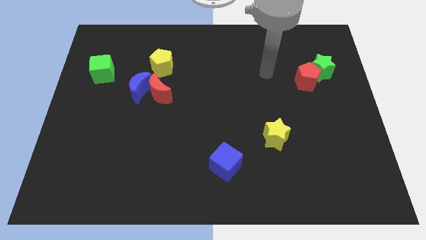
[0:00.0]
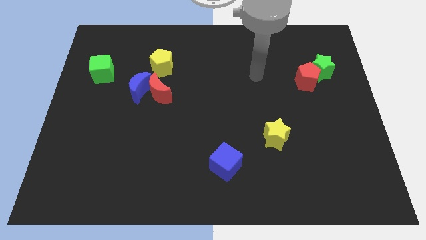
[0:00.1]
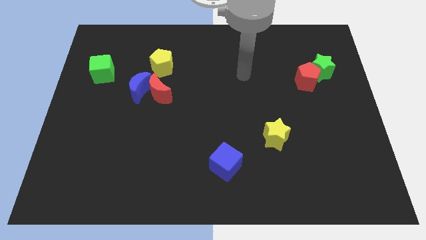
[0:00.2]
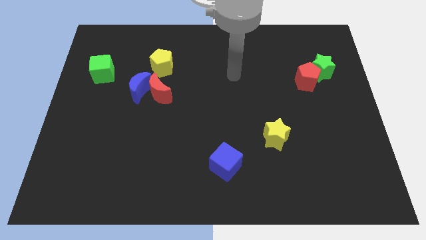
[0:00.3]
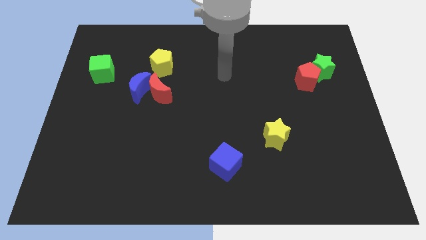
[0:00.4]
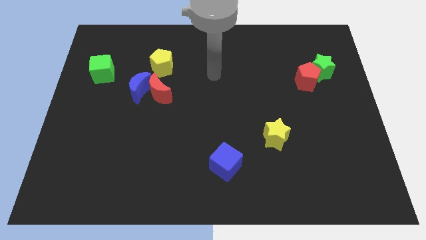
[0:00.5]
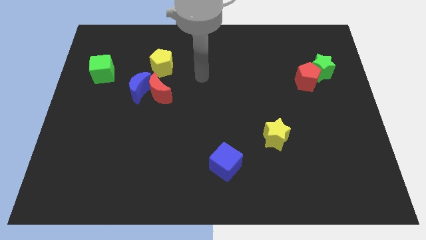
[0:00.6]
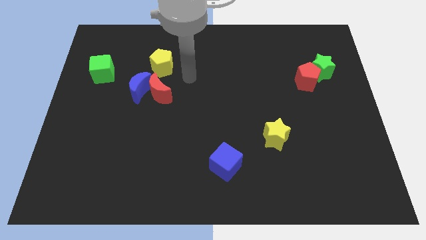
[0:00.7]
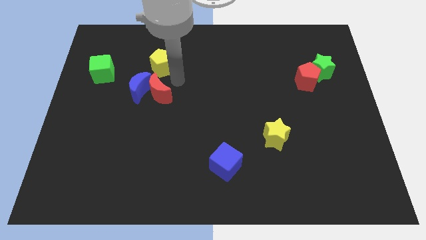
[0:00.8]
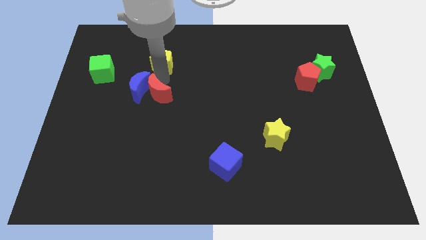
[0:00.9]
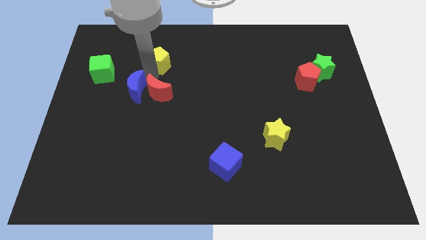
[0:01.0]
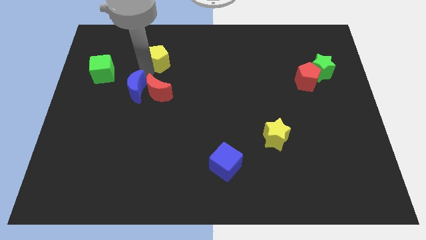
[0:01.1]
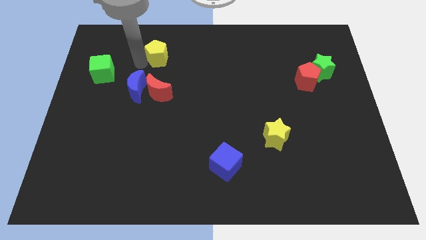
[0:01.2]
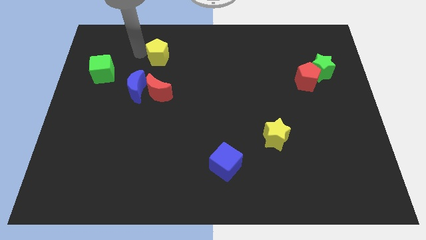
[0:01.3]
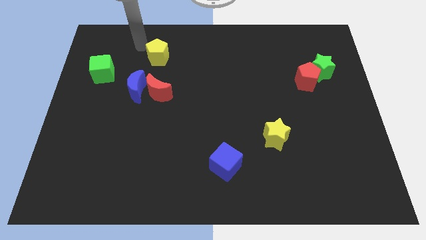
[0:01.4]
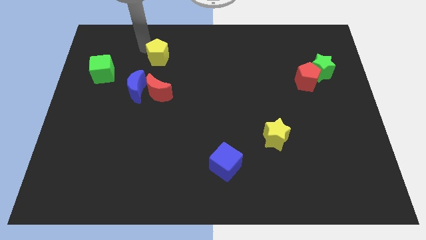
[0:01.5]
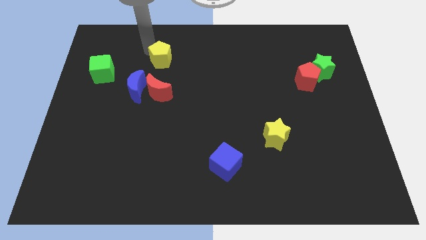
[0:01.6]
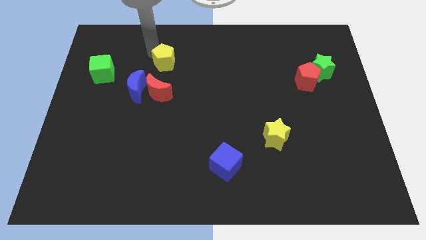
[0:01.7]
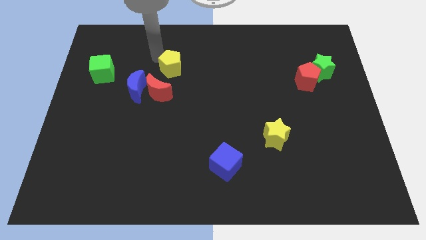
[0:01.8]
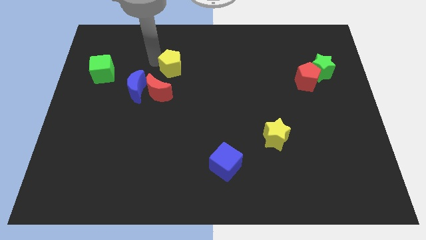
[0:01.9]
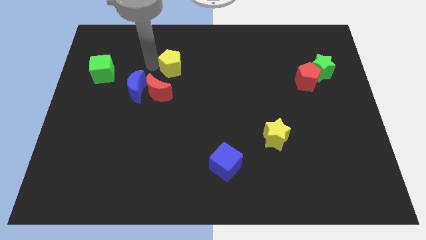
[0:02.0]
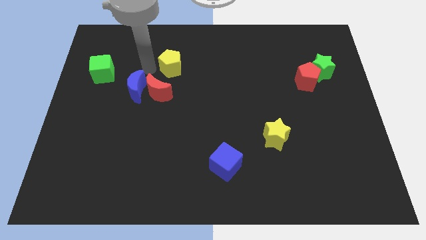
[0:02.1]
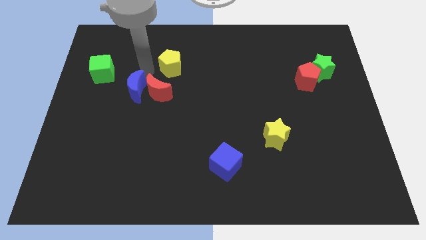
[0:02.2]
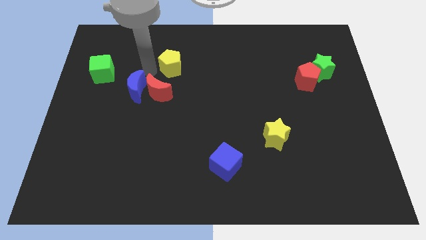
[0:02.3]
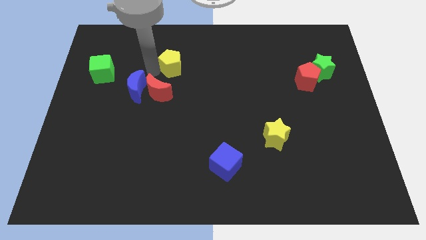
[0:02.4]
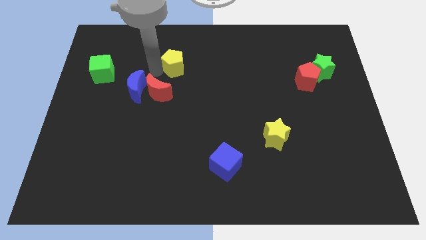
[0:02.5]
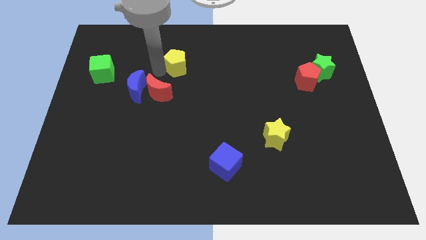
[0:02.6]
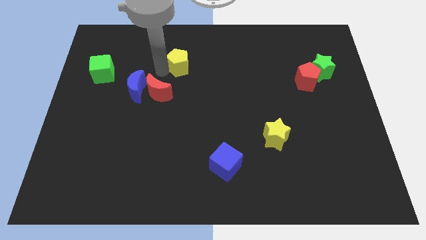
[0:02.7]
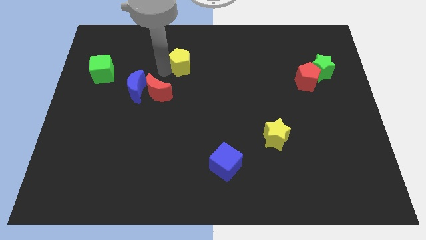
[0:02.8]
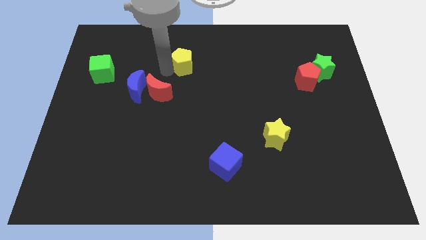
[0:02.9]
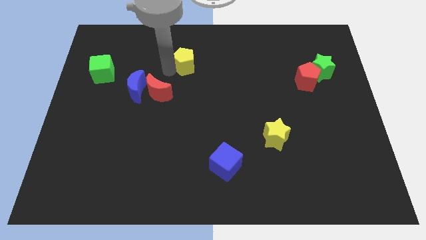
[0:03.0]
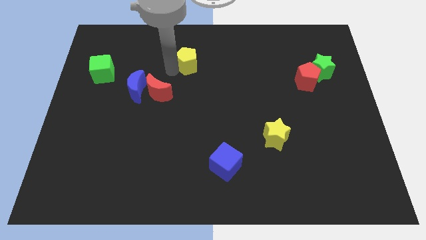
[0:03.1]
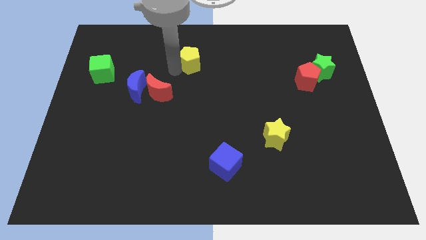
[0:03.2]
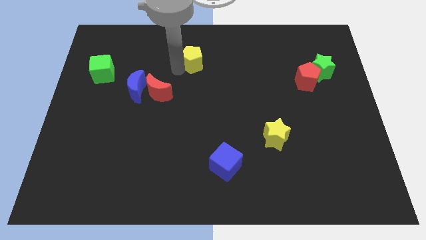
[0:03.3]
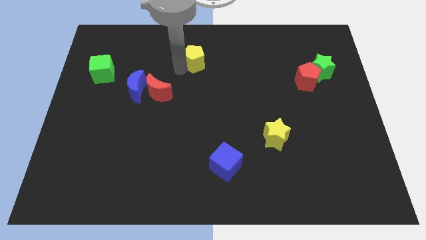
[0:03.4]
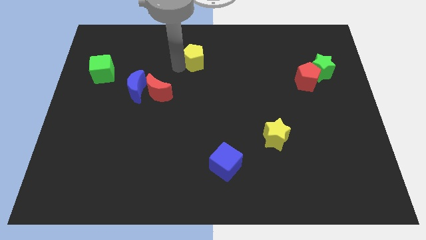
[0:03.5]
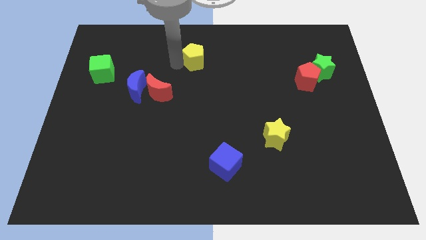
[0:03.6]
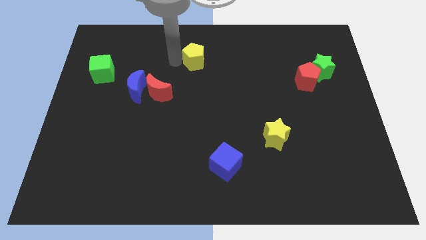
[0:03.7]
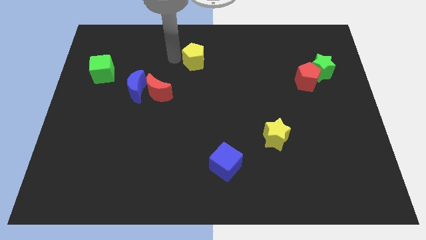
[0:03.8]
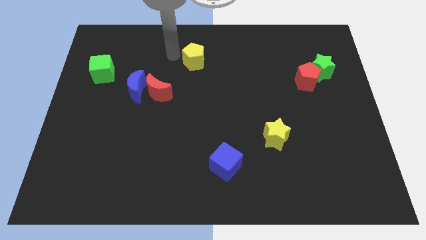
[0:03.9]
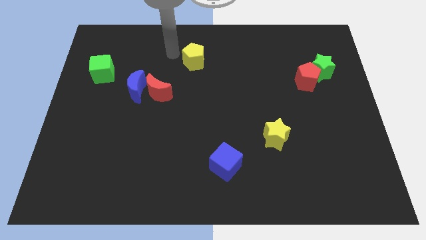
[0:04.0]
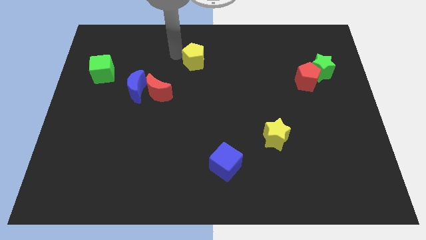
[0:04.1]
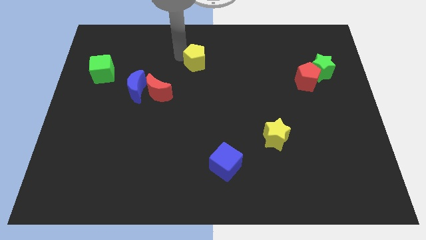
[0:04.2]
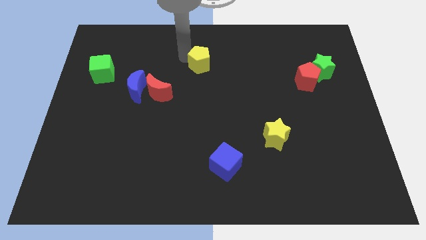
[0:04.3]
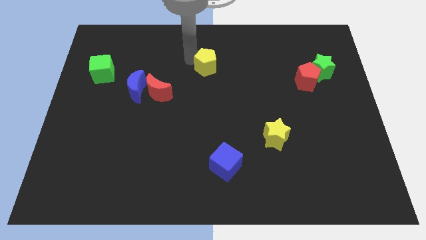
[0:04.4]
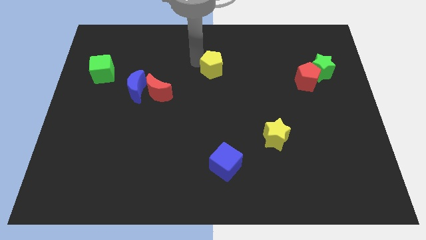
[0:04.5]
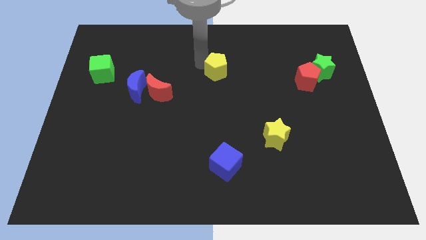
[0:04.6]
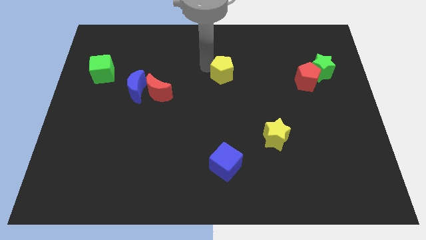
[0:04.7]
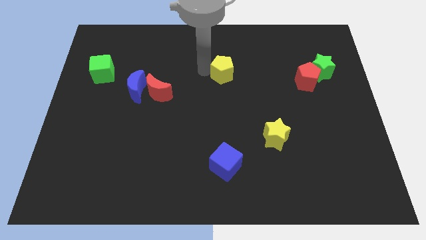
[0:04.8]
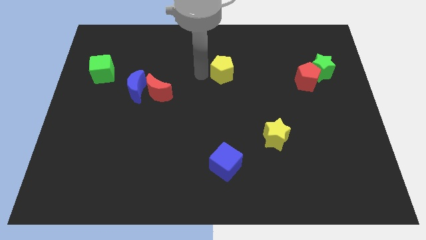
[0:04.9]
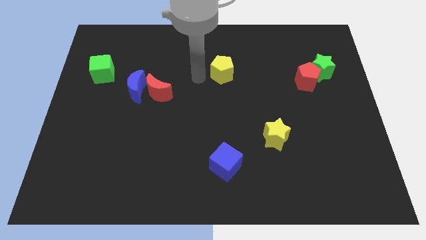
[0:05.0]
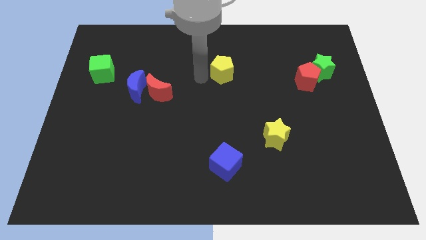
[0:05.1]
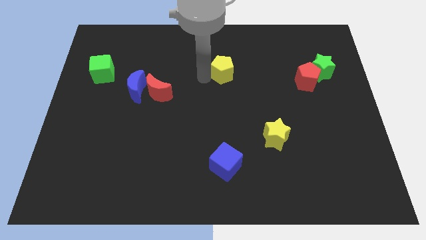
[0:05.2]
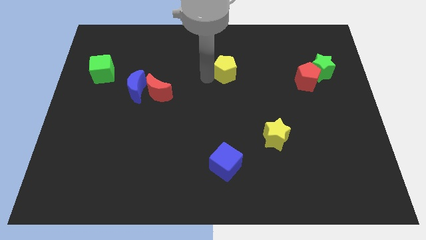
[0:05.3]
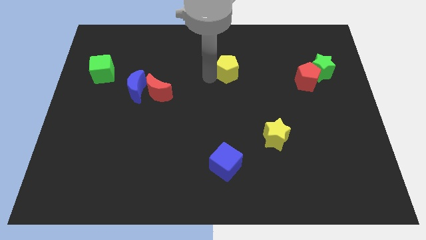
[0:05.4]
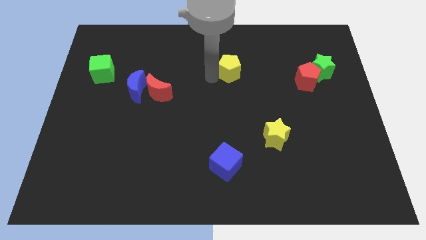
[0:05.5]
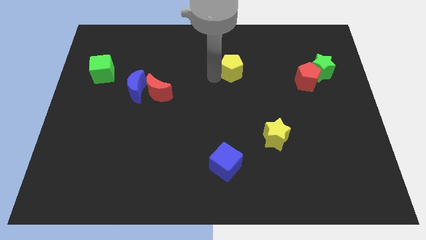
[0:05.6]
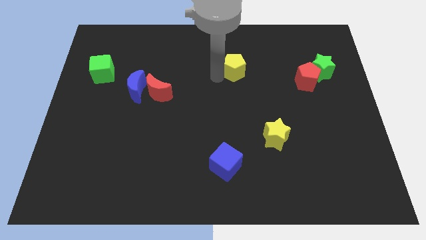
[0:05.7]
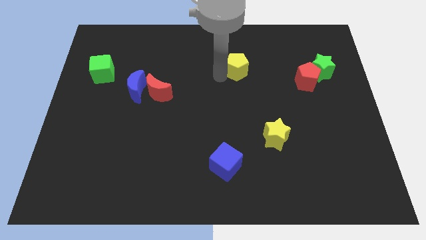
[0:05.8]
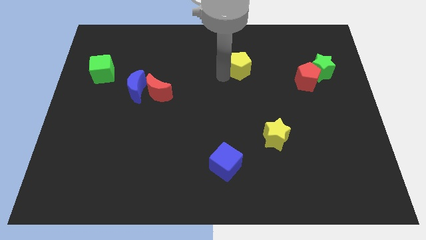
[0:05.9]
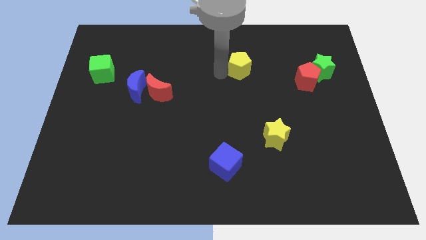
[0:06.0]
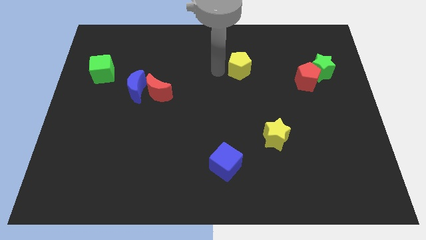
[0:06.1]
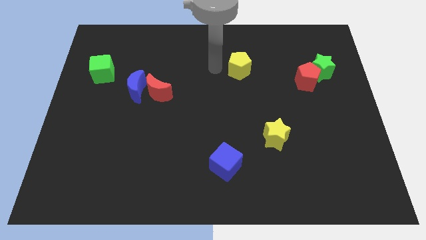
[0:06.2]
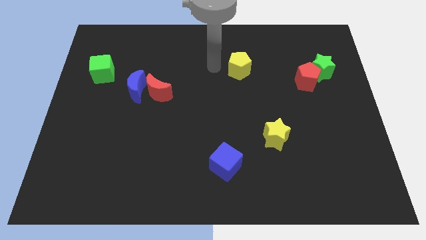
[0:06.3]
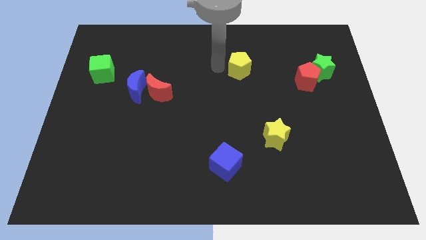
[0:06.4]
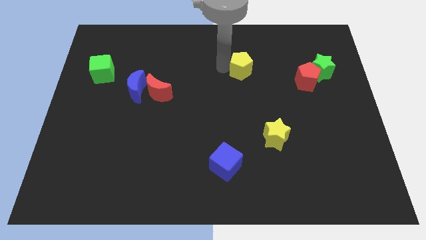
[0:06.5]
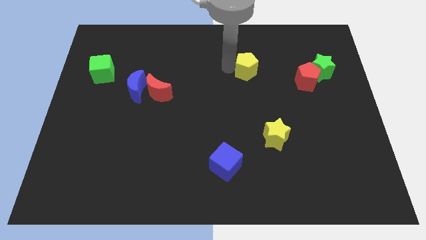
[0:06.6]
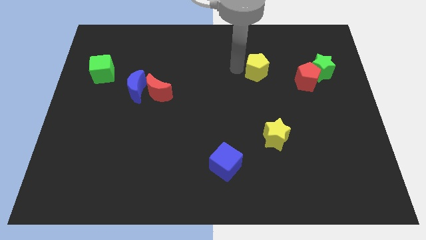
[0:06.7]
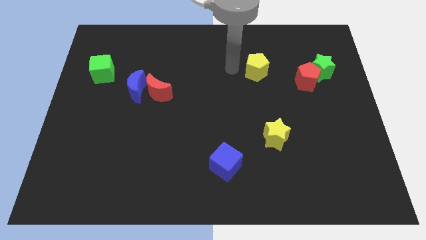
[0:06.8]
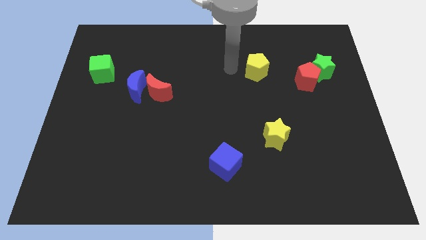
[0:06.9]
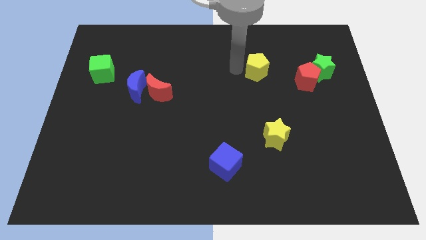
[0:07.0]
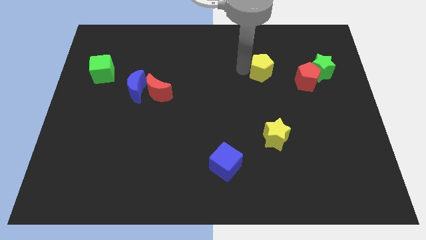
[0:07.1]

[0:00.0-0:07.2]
move the yellow pentagon left of the green star
